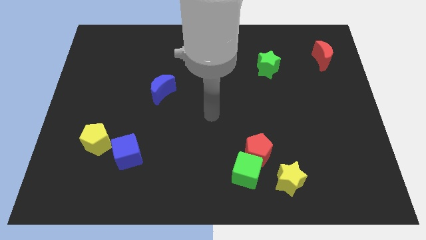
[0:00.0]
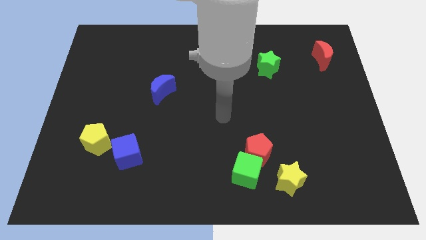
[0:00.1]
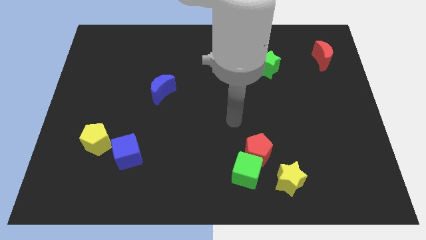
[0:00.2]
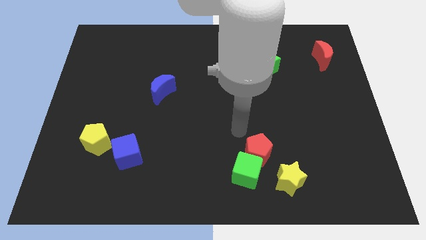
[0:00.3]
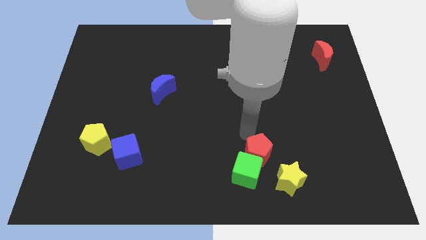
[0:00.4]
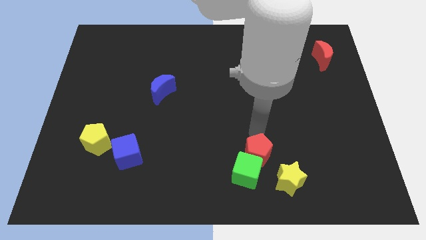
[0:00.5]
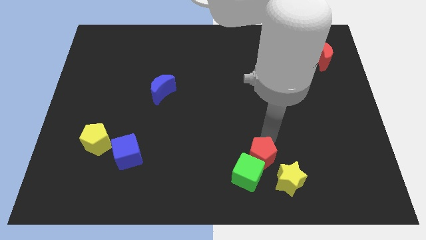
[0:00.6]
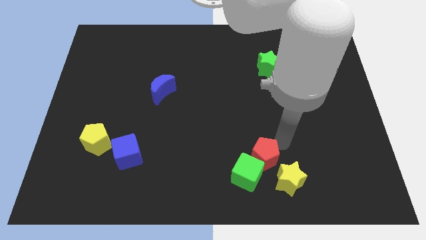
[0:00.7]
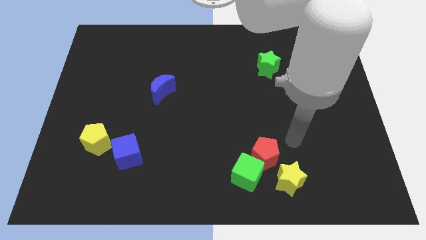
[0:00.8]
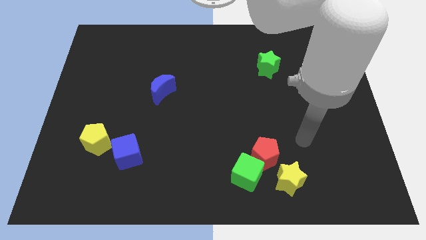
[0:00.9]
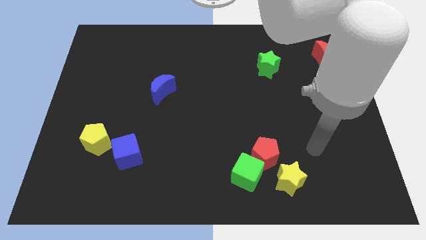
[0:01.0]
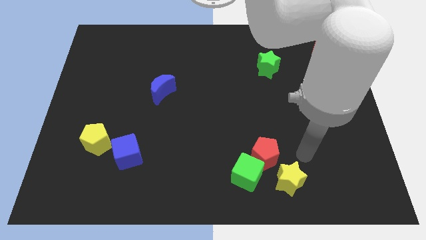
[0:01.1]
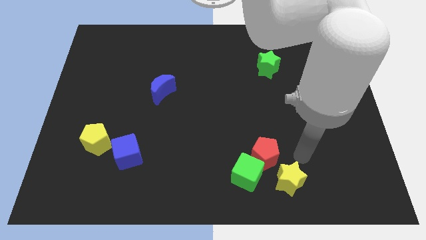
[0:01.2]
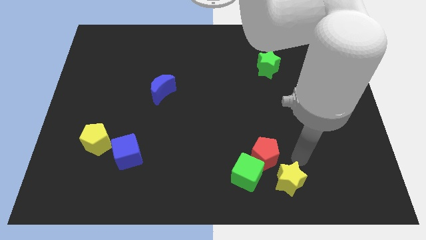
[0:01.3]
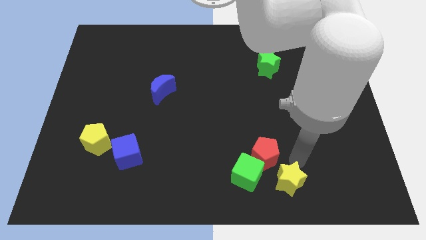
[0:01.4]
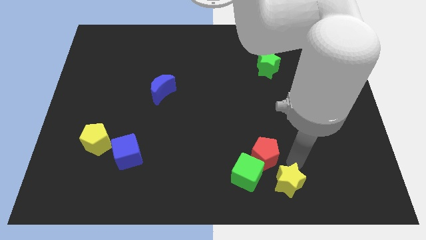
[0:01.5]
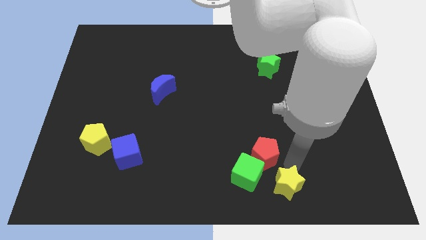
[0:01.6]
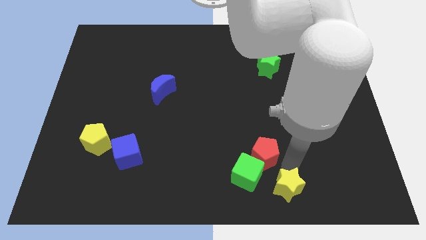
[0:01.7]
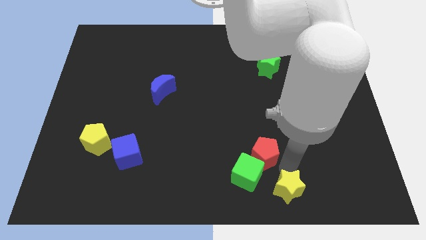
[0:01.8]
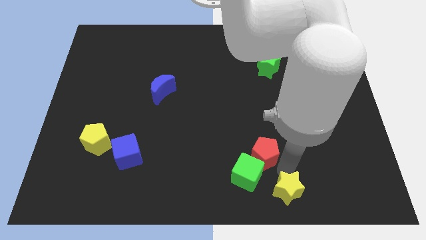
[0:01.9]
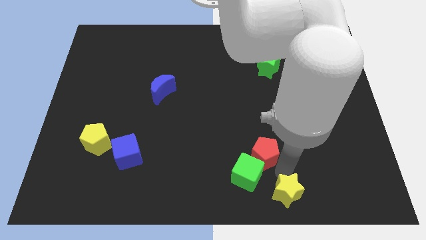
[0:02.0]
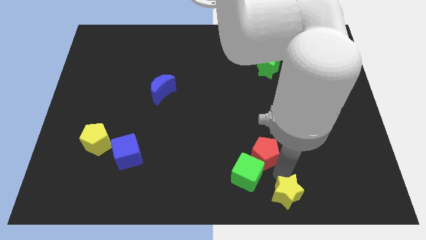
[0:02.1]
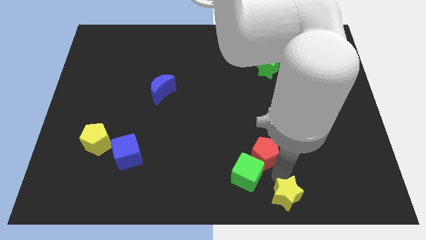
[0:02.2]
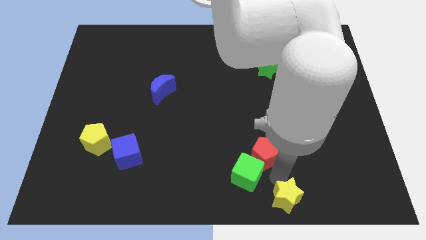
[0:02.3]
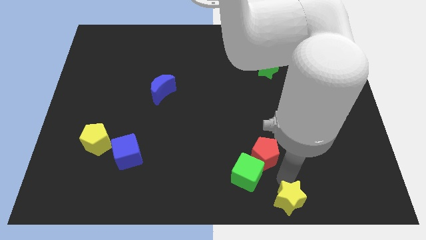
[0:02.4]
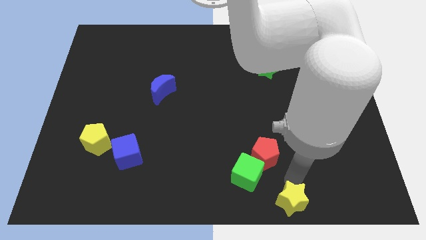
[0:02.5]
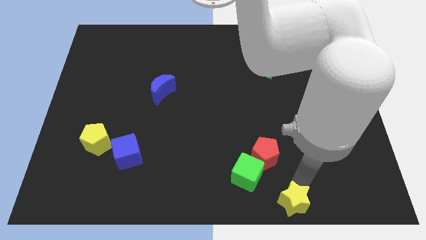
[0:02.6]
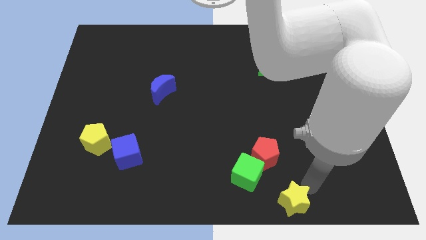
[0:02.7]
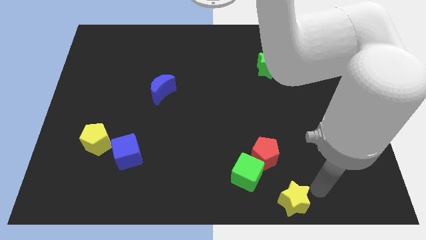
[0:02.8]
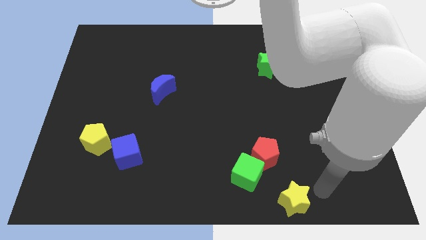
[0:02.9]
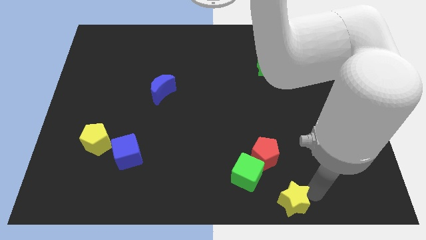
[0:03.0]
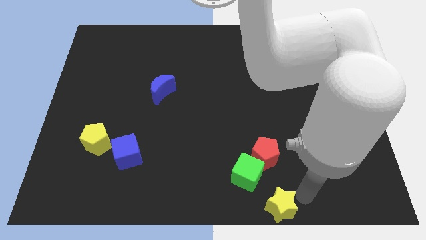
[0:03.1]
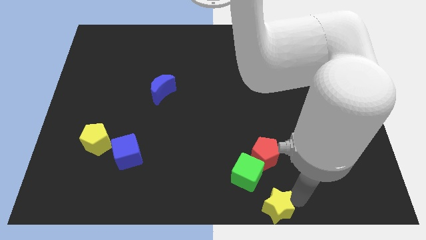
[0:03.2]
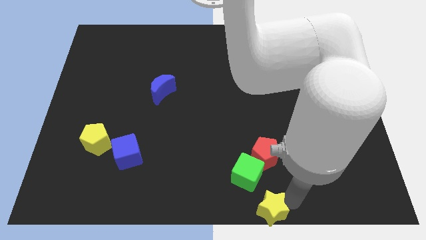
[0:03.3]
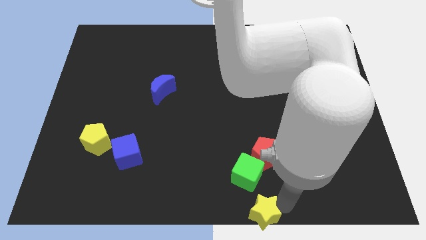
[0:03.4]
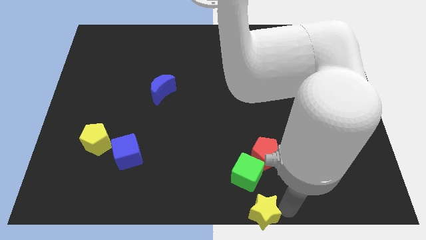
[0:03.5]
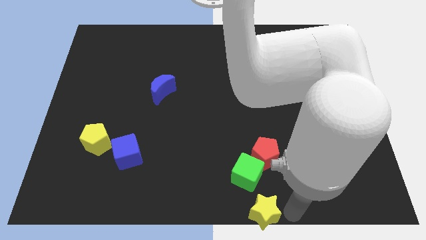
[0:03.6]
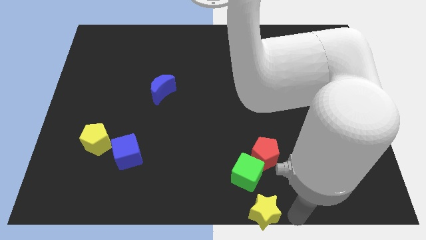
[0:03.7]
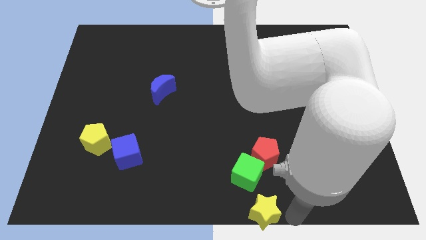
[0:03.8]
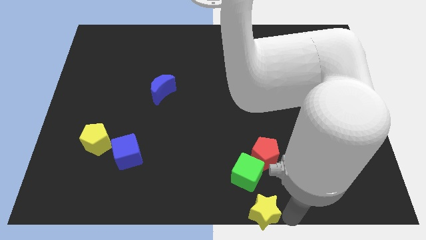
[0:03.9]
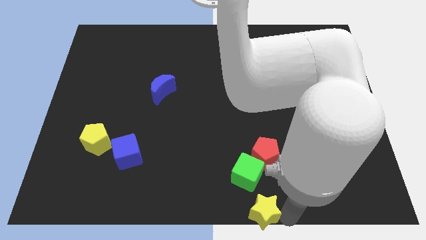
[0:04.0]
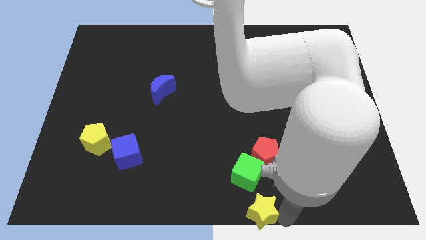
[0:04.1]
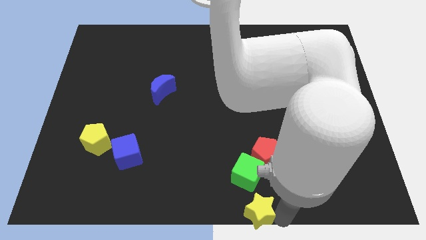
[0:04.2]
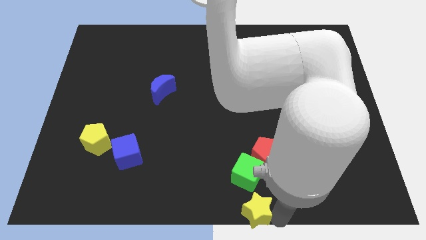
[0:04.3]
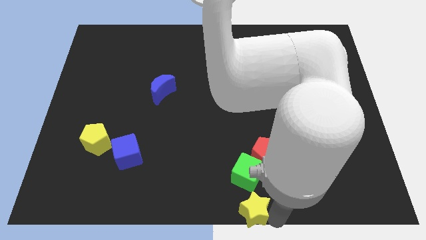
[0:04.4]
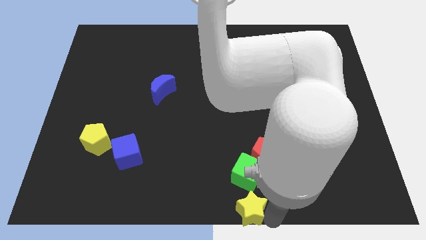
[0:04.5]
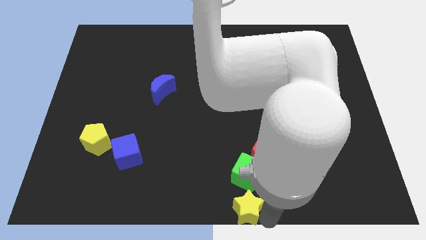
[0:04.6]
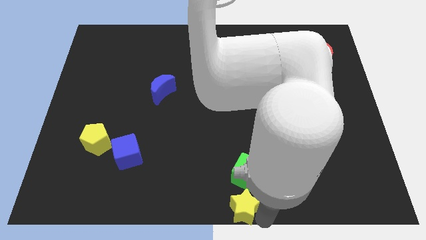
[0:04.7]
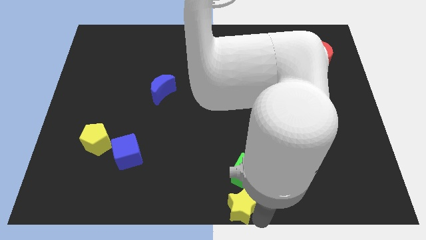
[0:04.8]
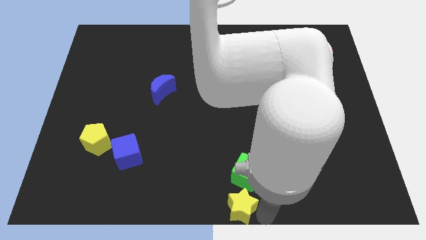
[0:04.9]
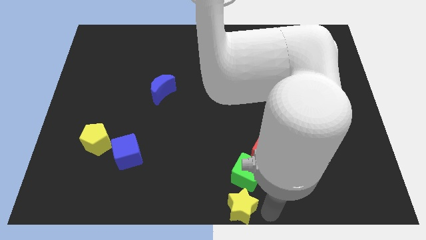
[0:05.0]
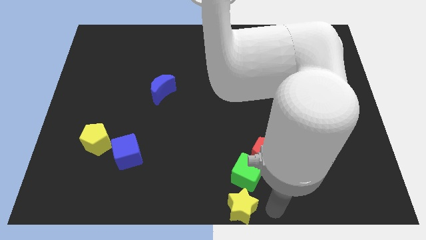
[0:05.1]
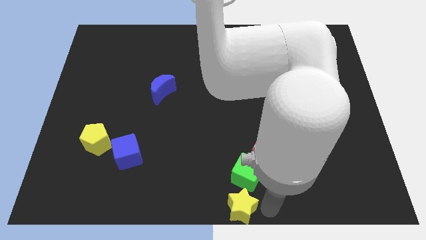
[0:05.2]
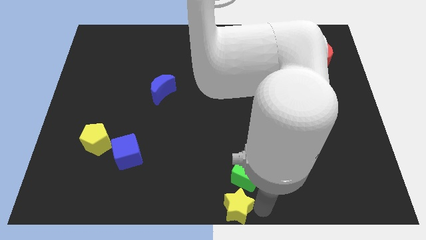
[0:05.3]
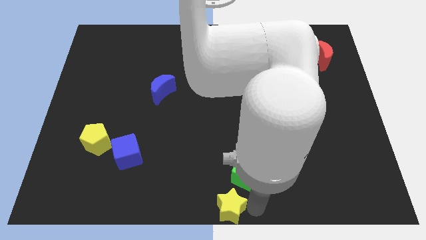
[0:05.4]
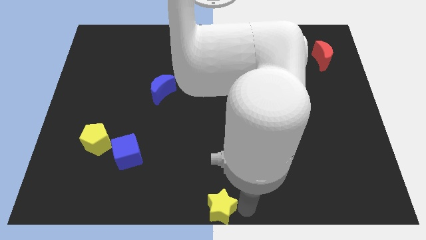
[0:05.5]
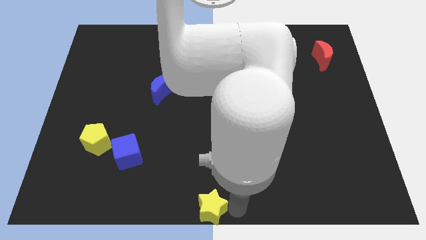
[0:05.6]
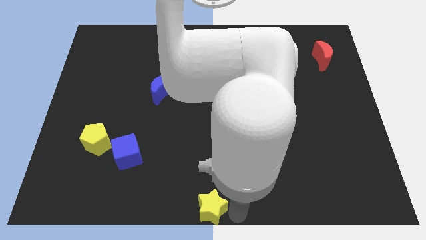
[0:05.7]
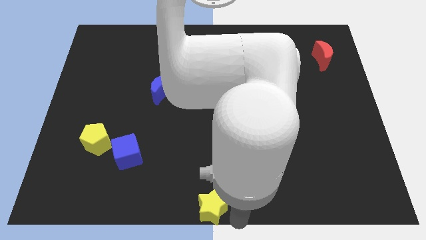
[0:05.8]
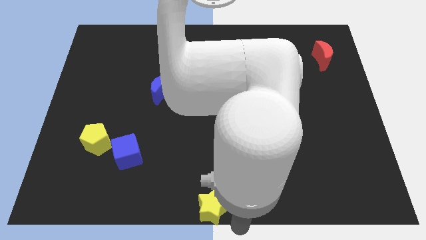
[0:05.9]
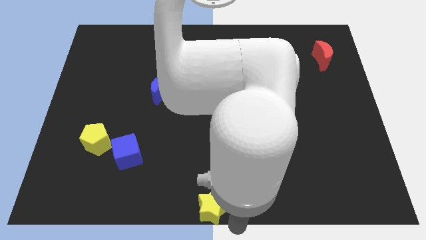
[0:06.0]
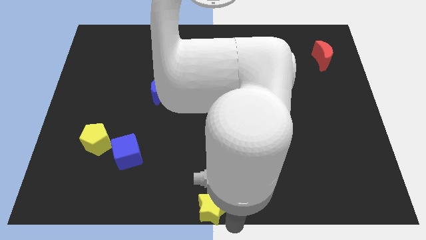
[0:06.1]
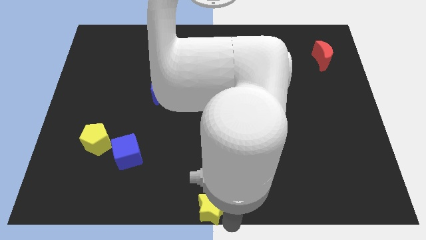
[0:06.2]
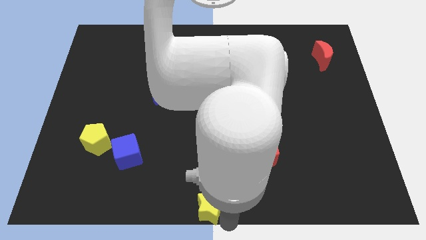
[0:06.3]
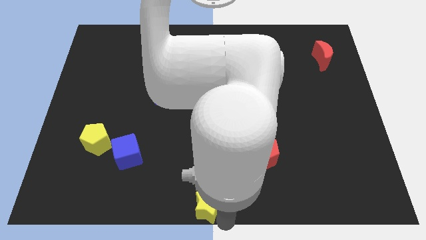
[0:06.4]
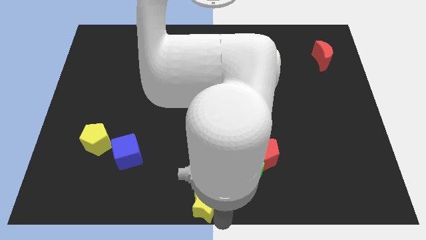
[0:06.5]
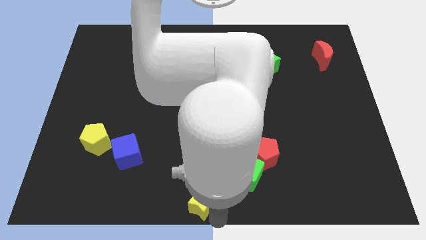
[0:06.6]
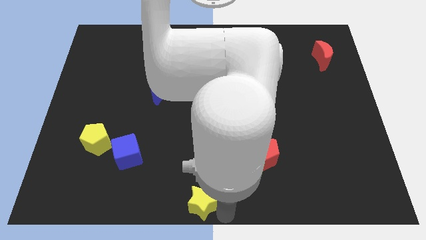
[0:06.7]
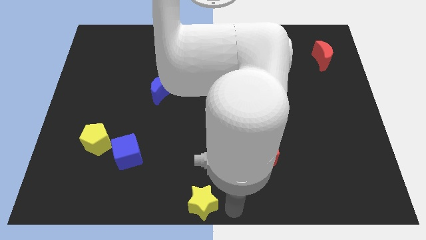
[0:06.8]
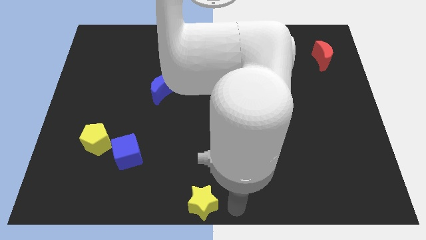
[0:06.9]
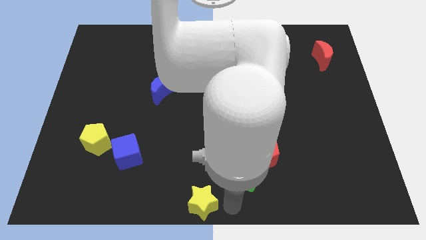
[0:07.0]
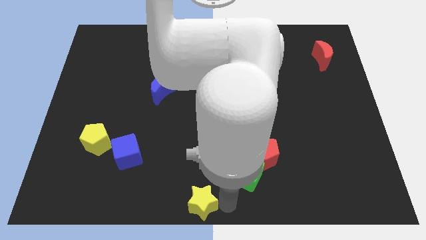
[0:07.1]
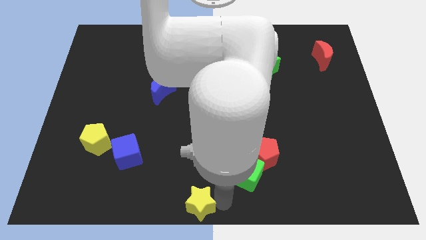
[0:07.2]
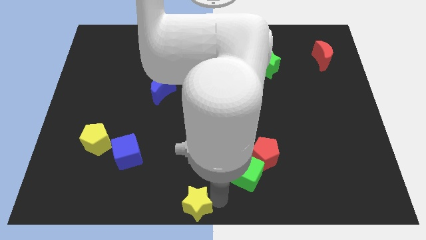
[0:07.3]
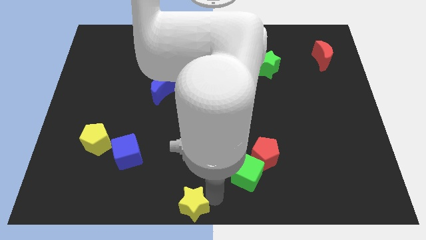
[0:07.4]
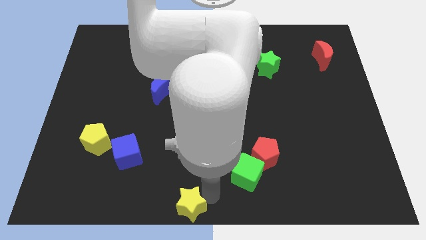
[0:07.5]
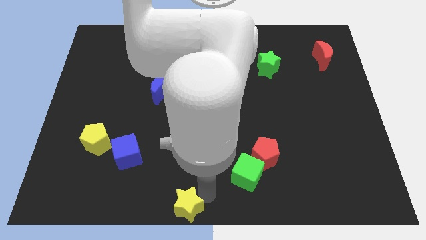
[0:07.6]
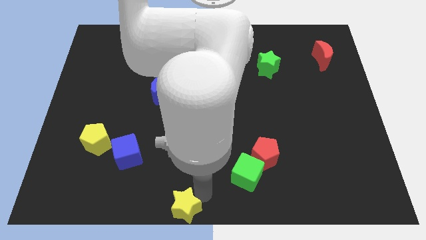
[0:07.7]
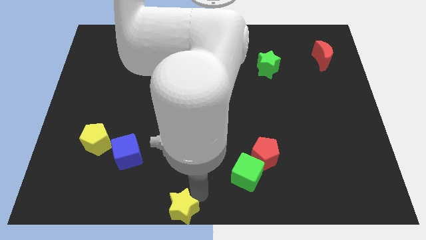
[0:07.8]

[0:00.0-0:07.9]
move the yellow star left

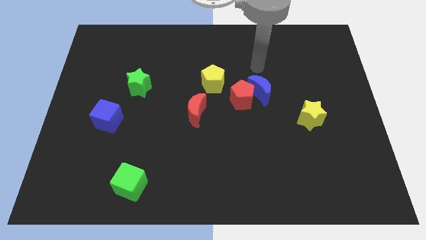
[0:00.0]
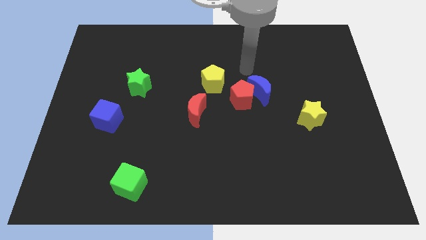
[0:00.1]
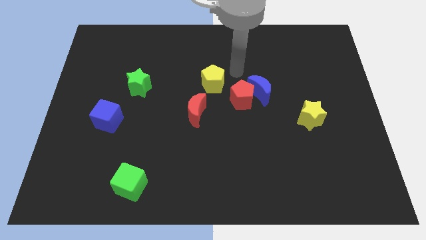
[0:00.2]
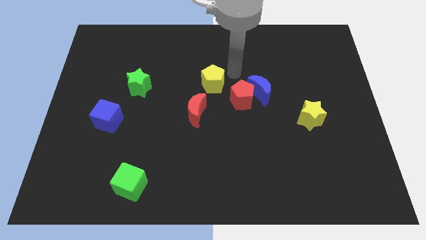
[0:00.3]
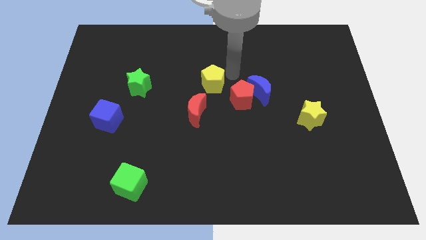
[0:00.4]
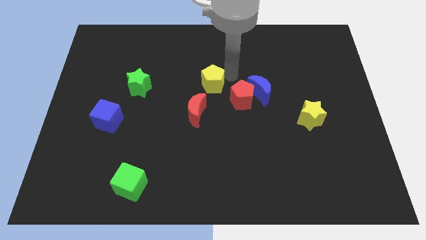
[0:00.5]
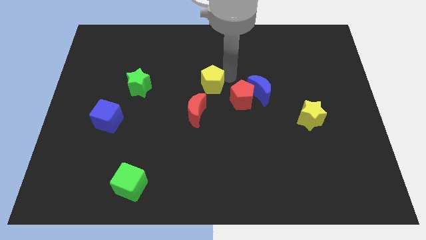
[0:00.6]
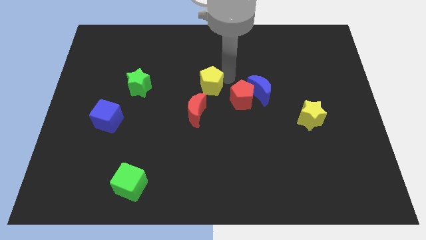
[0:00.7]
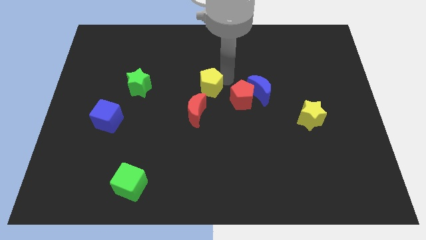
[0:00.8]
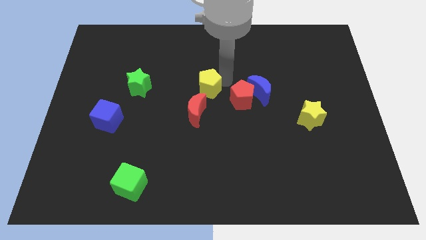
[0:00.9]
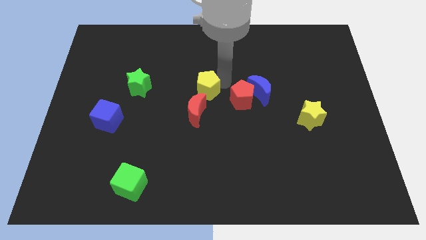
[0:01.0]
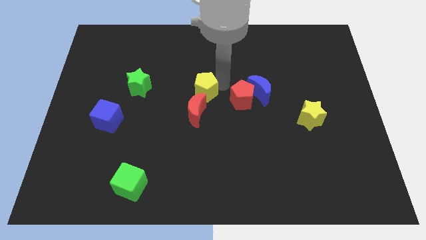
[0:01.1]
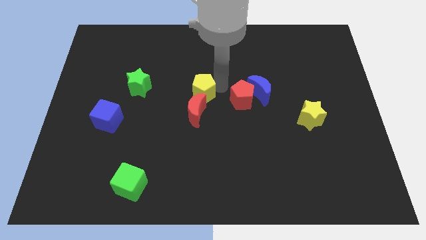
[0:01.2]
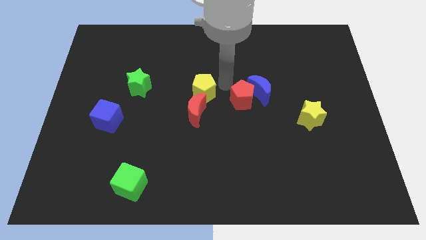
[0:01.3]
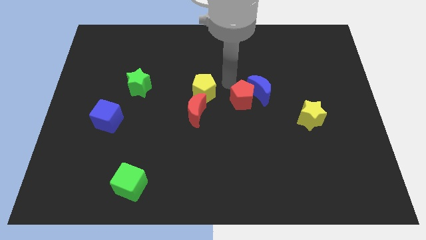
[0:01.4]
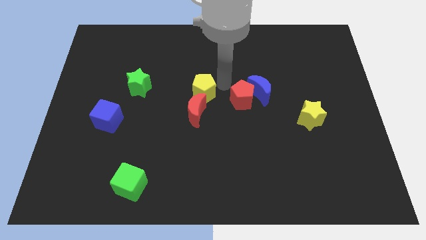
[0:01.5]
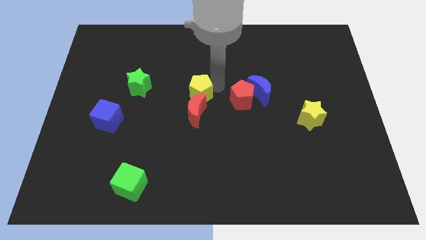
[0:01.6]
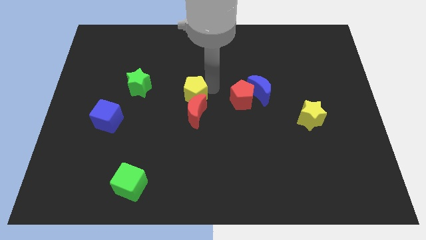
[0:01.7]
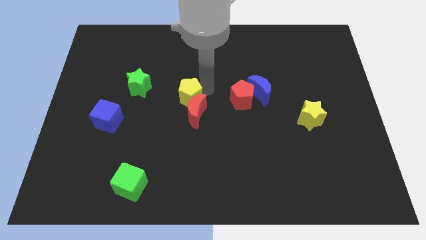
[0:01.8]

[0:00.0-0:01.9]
slide the yellow pentagon a little down and left
